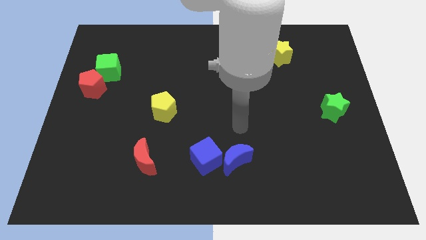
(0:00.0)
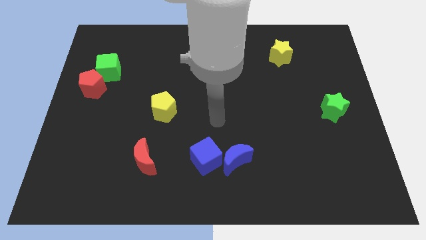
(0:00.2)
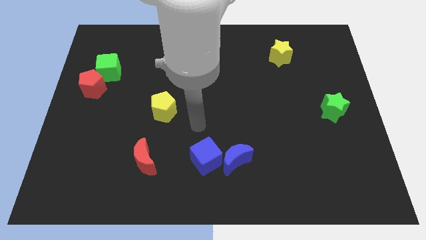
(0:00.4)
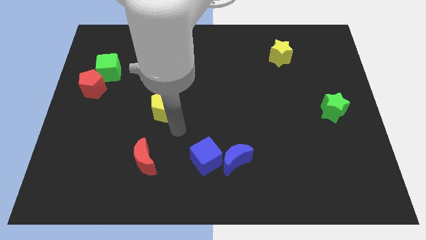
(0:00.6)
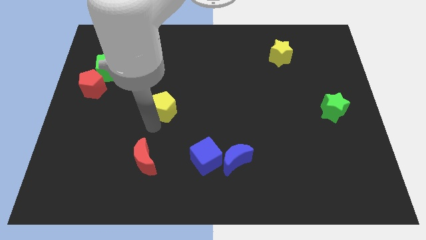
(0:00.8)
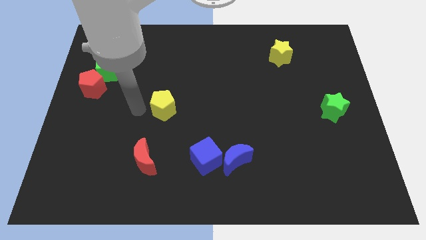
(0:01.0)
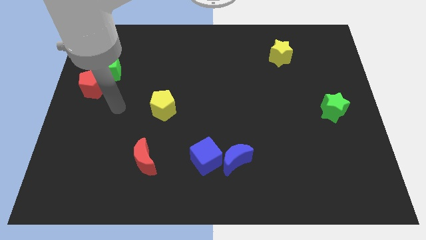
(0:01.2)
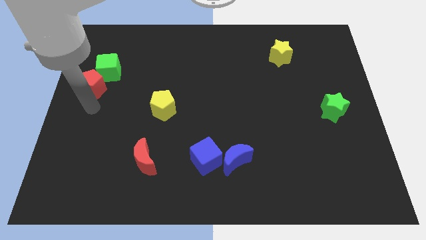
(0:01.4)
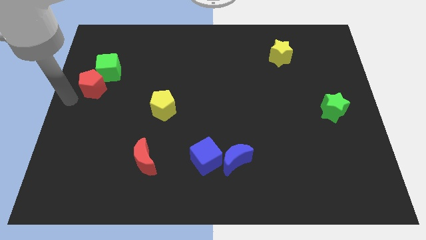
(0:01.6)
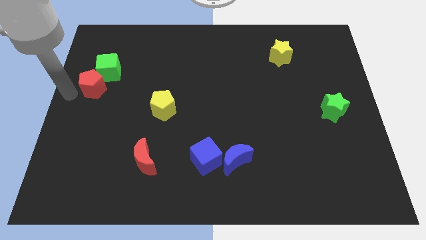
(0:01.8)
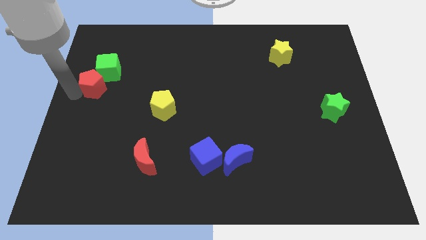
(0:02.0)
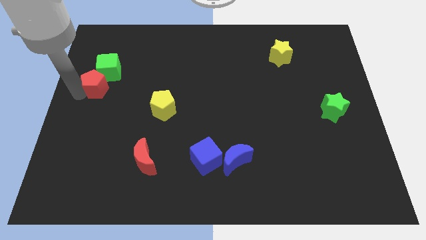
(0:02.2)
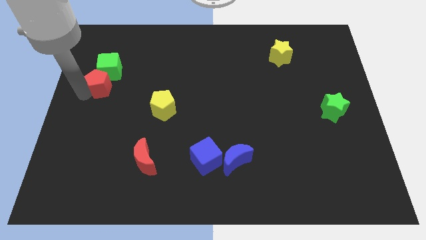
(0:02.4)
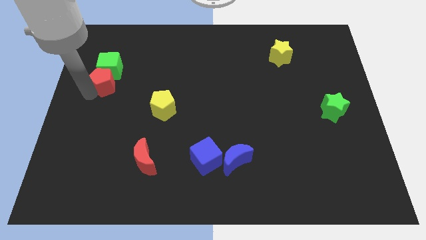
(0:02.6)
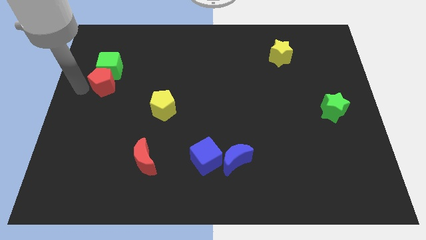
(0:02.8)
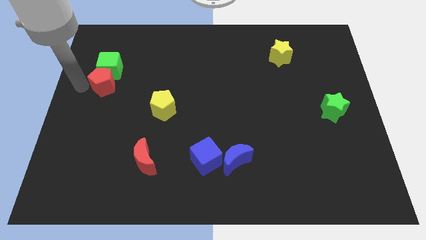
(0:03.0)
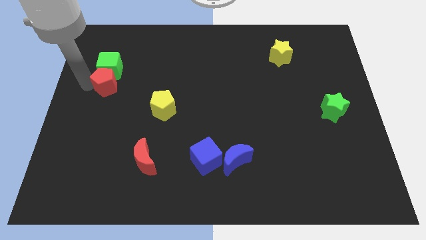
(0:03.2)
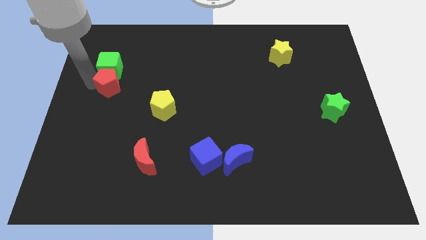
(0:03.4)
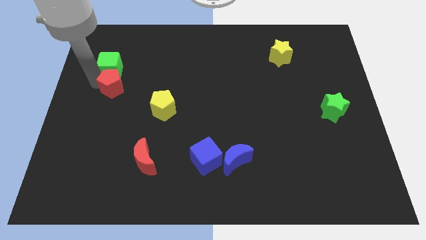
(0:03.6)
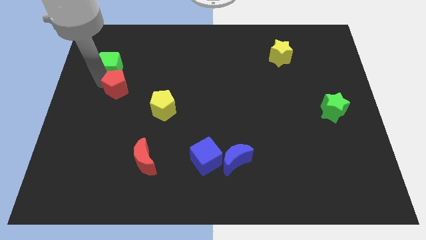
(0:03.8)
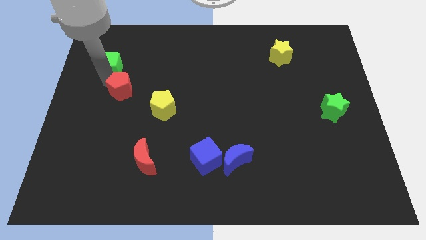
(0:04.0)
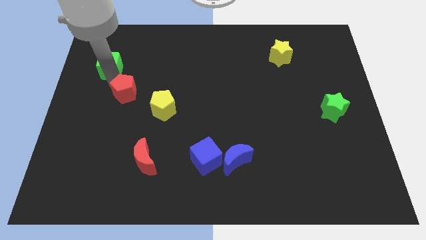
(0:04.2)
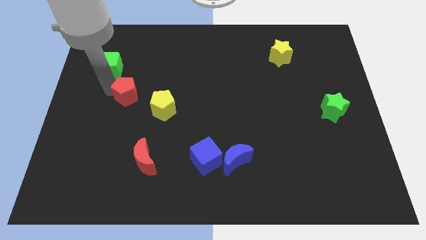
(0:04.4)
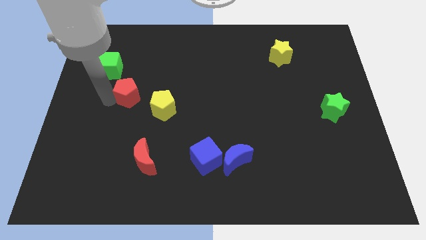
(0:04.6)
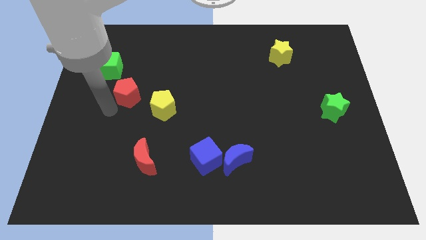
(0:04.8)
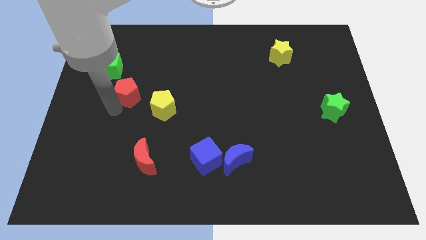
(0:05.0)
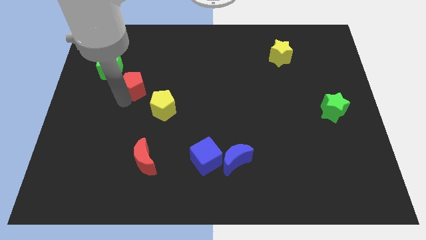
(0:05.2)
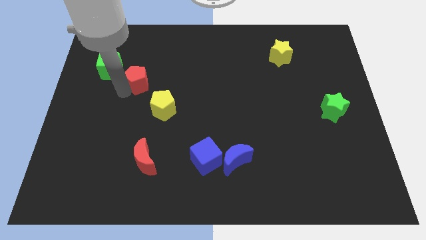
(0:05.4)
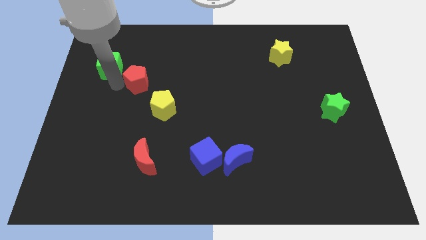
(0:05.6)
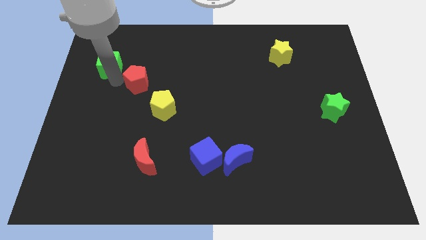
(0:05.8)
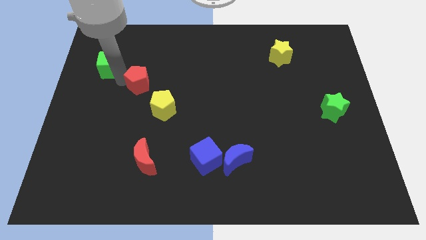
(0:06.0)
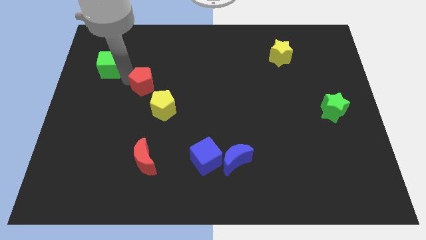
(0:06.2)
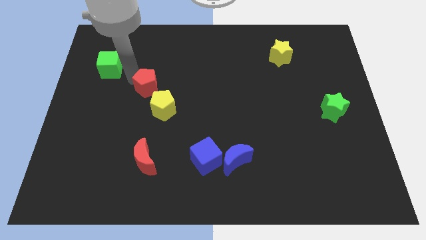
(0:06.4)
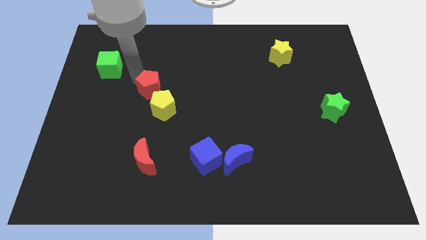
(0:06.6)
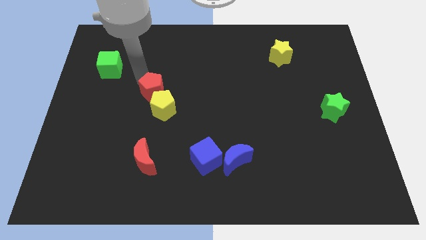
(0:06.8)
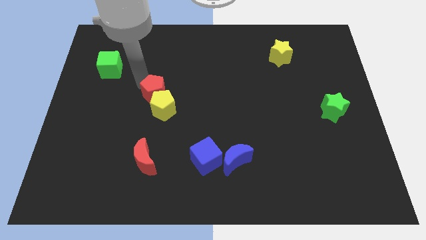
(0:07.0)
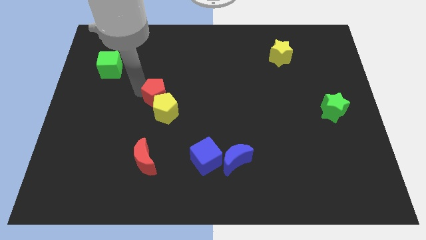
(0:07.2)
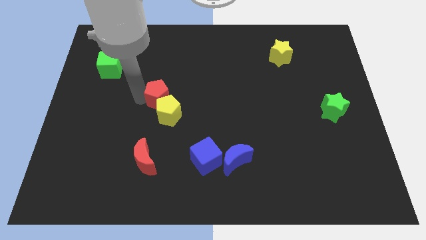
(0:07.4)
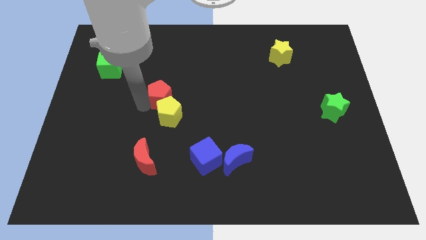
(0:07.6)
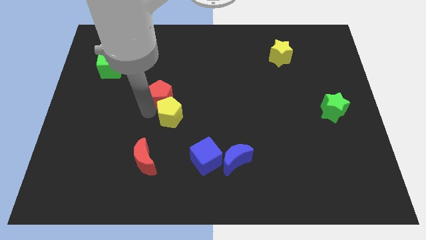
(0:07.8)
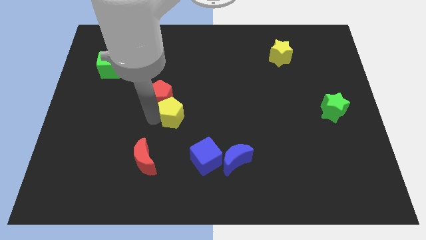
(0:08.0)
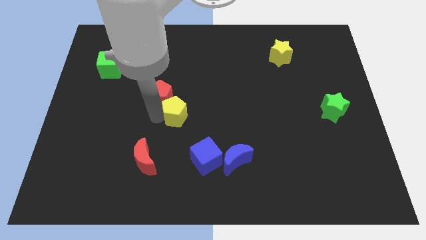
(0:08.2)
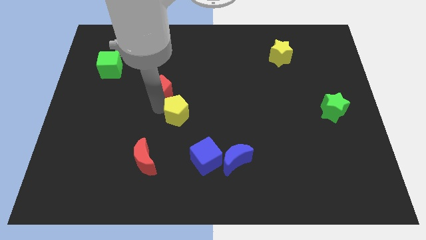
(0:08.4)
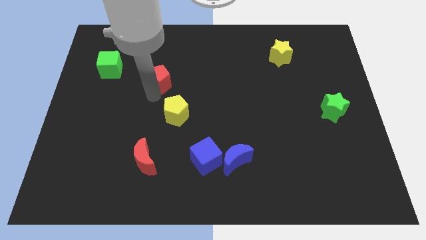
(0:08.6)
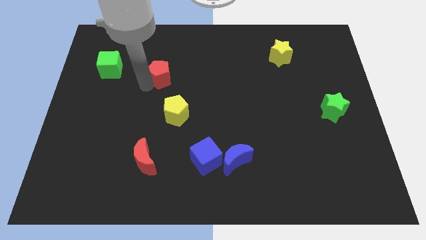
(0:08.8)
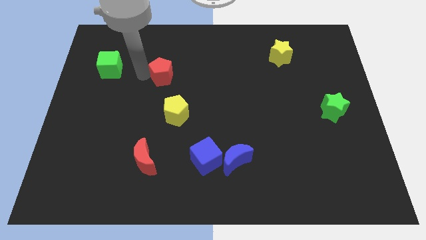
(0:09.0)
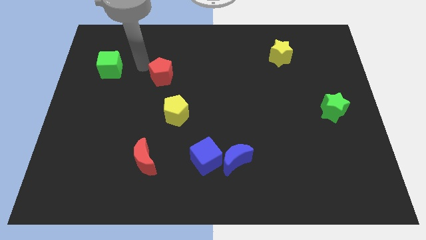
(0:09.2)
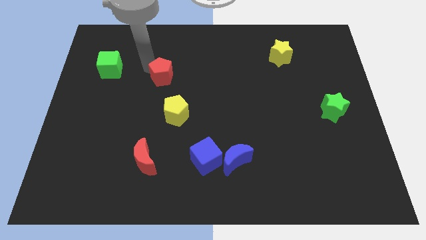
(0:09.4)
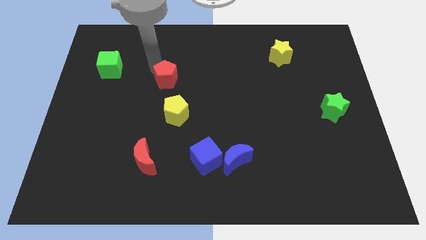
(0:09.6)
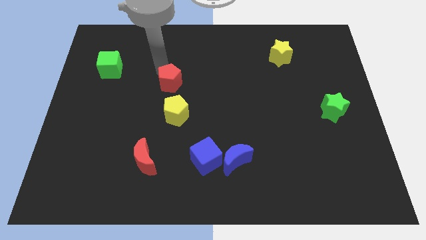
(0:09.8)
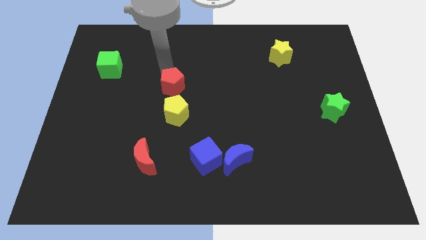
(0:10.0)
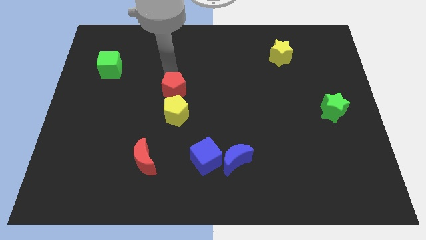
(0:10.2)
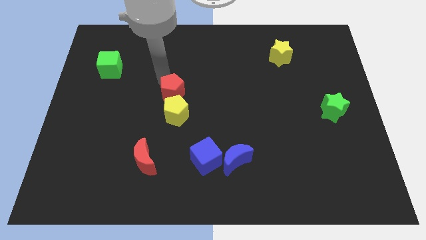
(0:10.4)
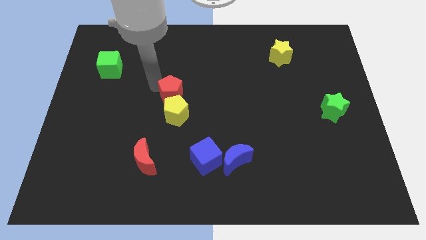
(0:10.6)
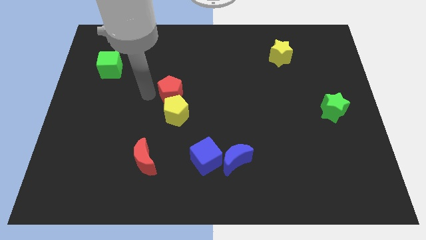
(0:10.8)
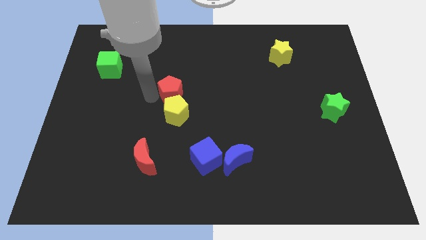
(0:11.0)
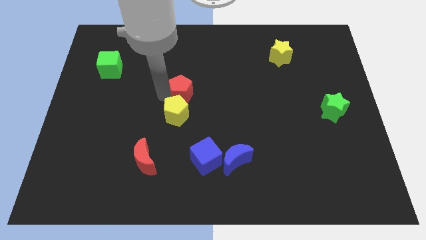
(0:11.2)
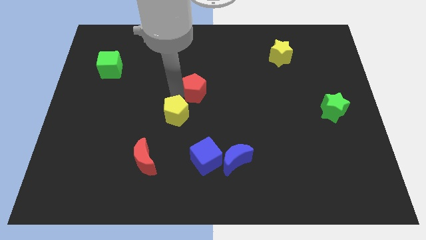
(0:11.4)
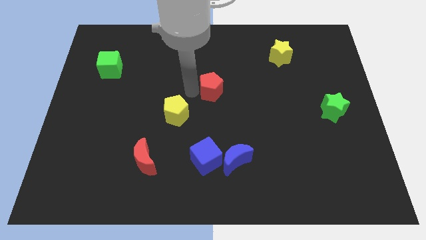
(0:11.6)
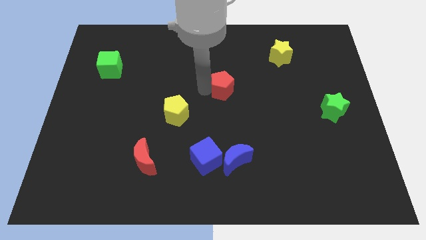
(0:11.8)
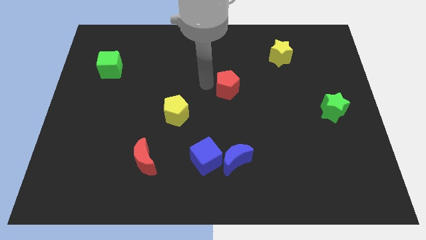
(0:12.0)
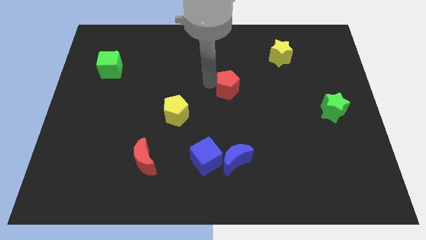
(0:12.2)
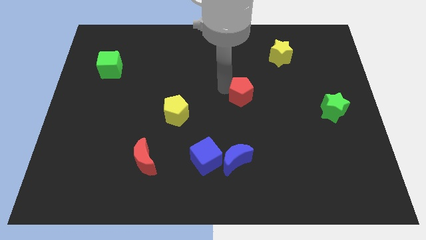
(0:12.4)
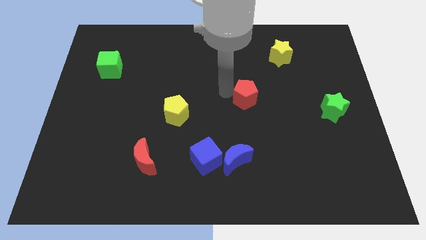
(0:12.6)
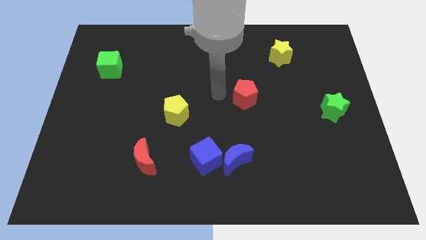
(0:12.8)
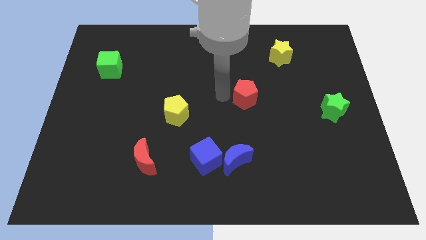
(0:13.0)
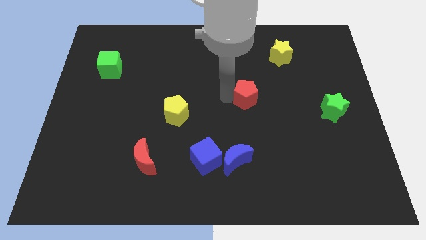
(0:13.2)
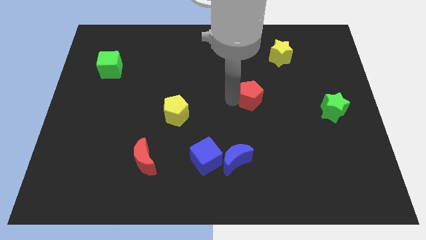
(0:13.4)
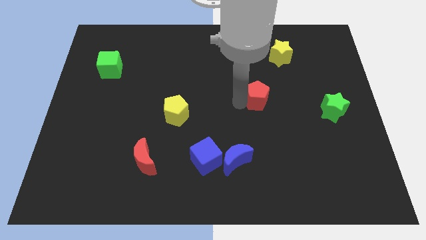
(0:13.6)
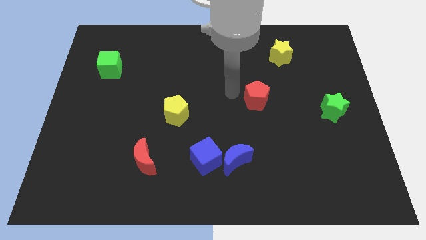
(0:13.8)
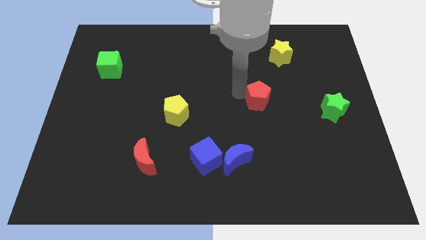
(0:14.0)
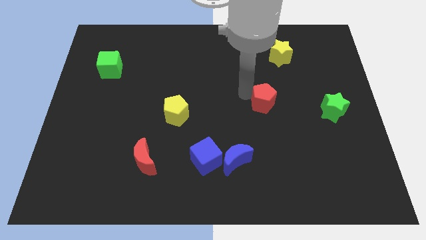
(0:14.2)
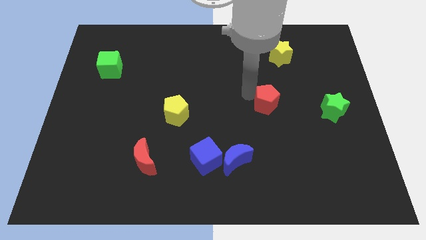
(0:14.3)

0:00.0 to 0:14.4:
push the red pentagon to the left of the green star
